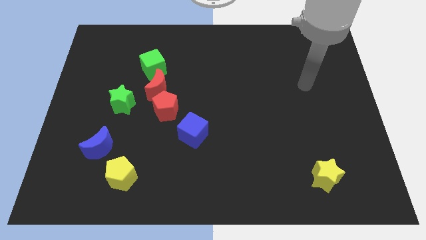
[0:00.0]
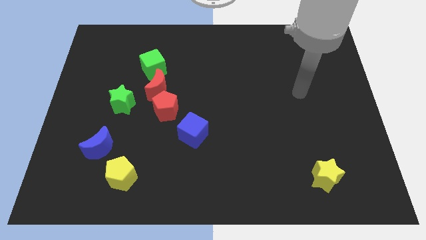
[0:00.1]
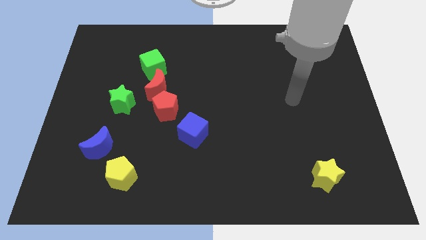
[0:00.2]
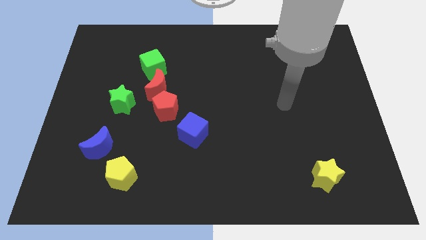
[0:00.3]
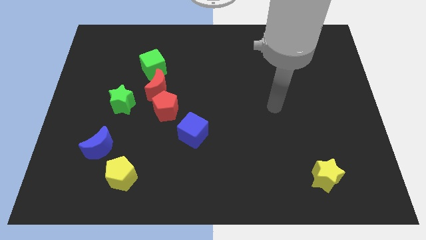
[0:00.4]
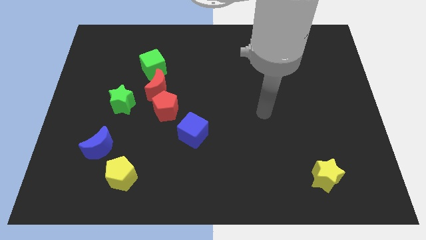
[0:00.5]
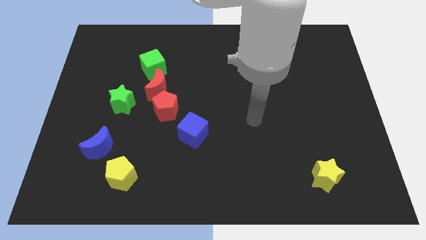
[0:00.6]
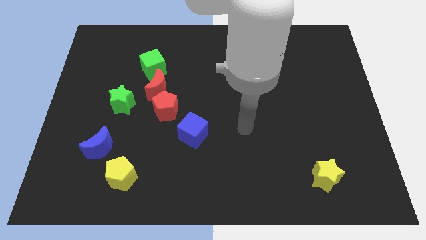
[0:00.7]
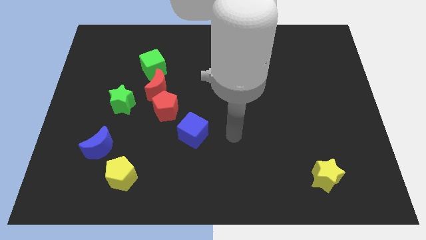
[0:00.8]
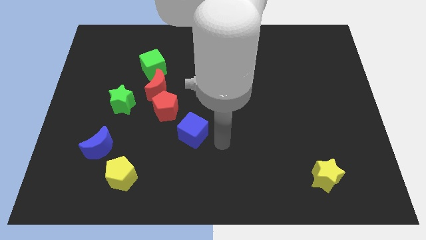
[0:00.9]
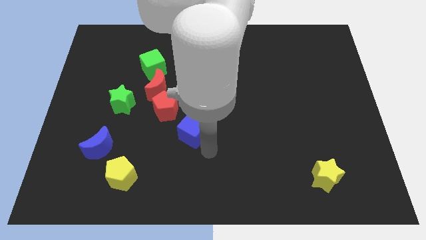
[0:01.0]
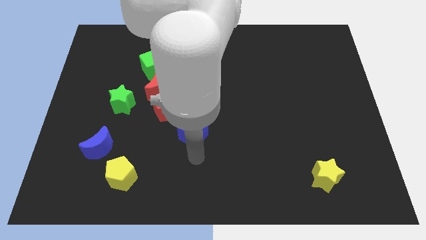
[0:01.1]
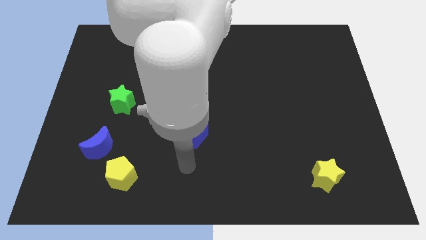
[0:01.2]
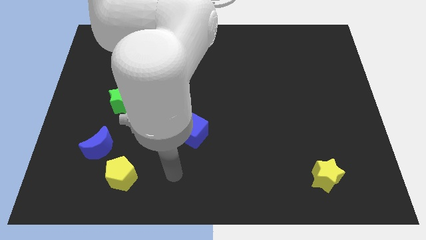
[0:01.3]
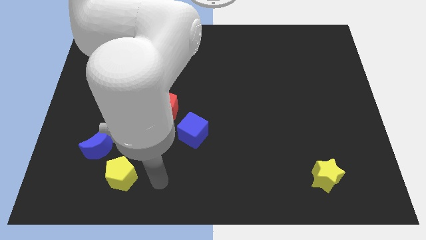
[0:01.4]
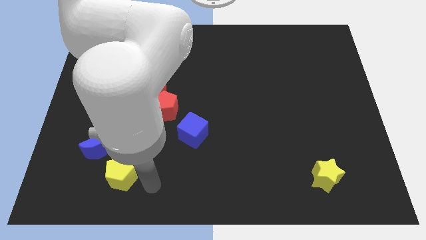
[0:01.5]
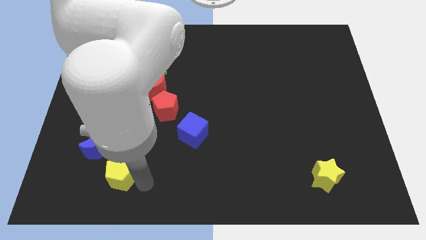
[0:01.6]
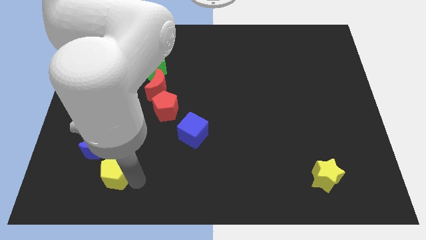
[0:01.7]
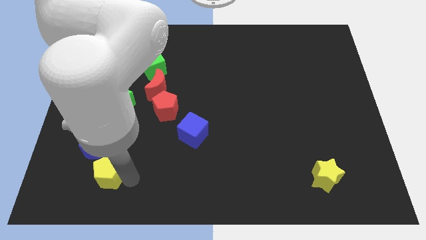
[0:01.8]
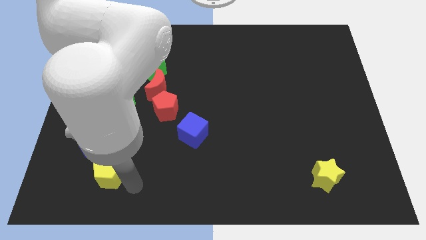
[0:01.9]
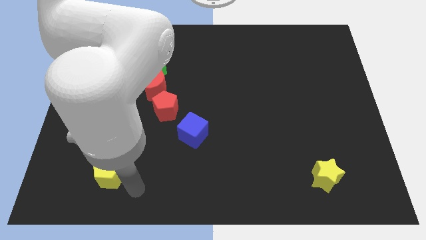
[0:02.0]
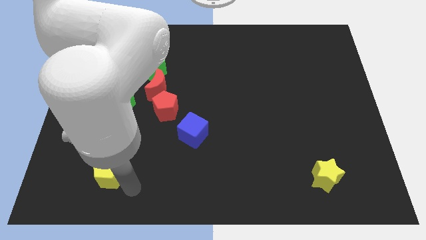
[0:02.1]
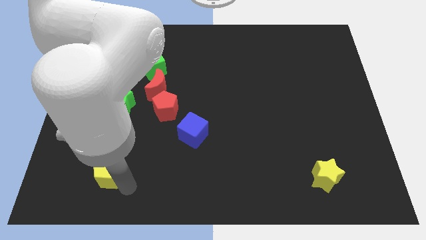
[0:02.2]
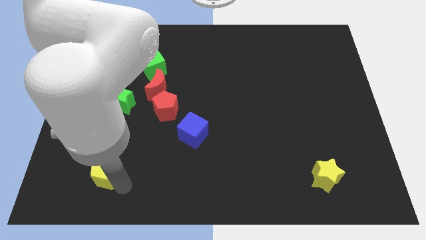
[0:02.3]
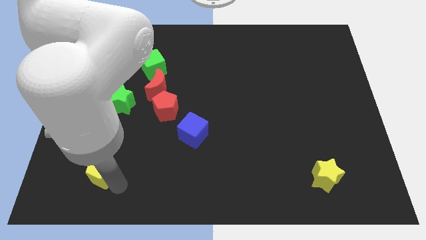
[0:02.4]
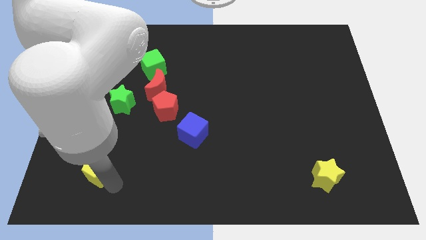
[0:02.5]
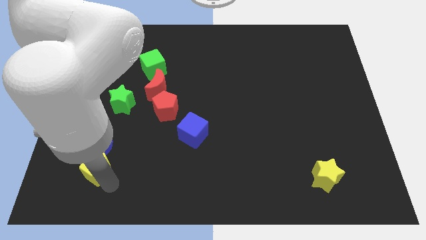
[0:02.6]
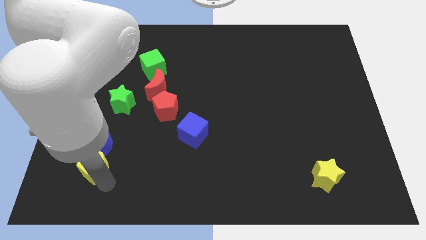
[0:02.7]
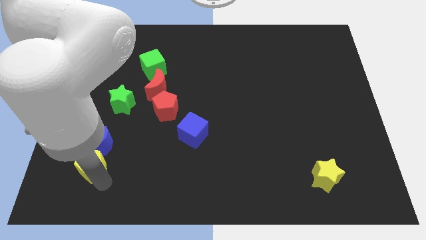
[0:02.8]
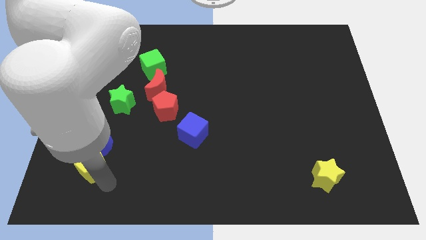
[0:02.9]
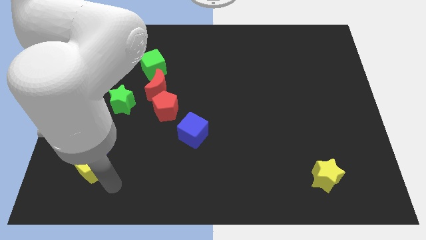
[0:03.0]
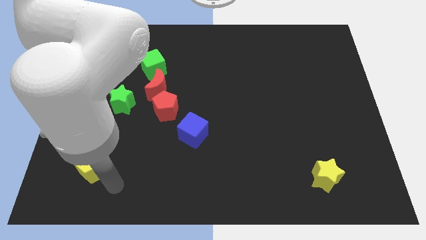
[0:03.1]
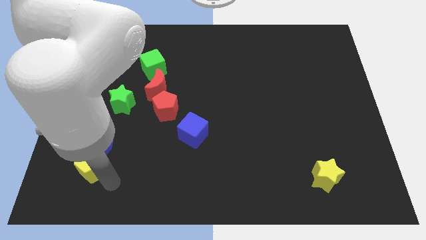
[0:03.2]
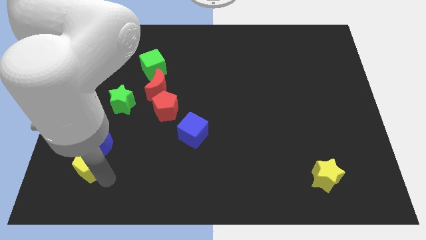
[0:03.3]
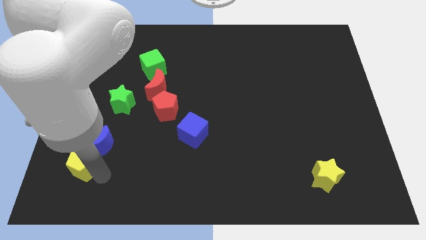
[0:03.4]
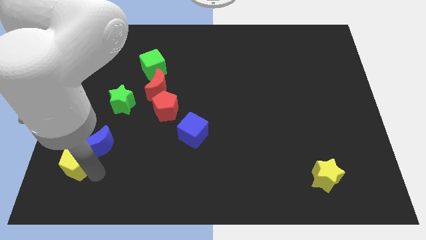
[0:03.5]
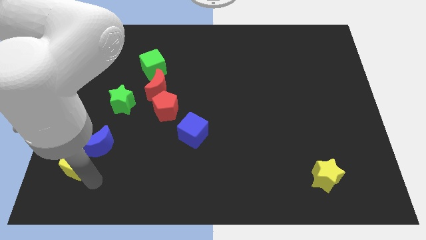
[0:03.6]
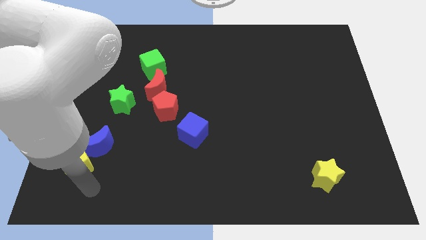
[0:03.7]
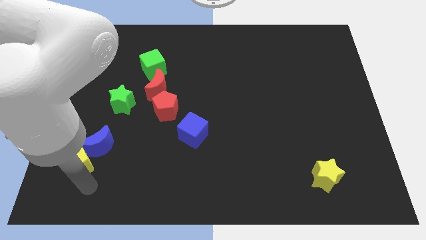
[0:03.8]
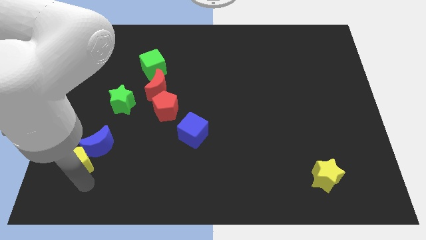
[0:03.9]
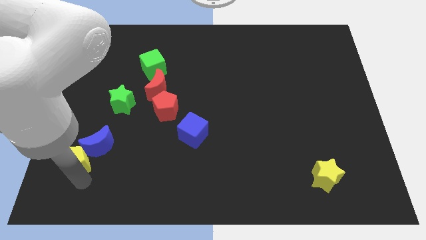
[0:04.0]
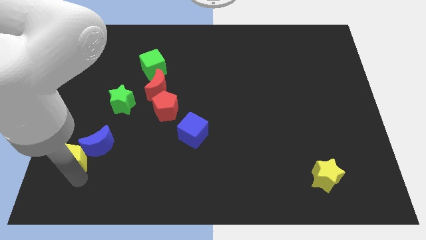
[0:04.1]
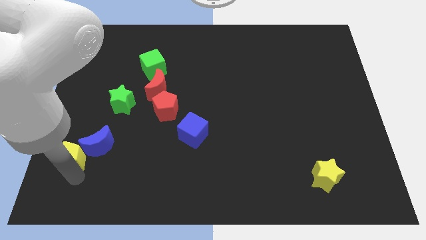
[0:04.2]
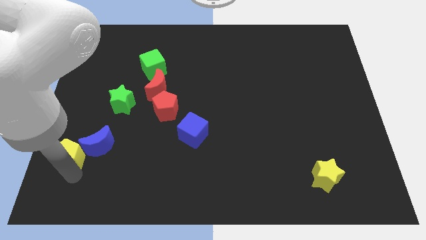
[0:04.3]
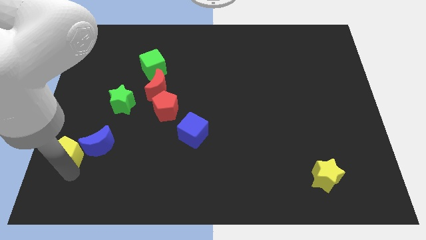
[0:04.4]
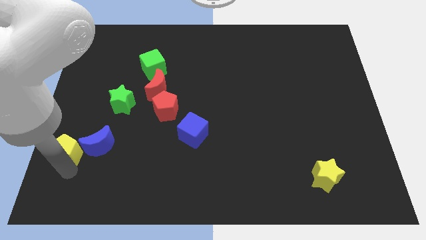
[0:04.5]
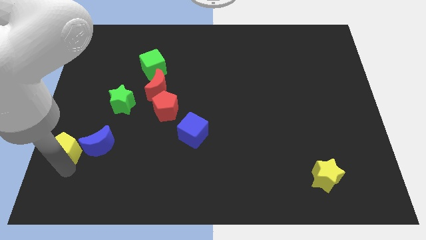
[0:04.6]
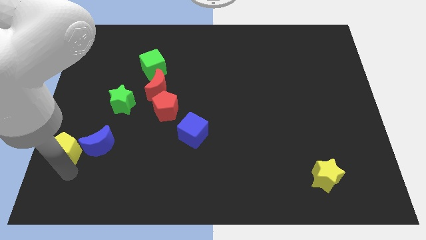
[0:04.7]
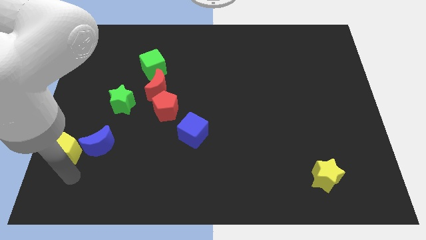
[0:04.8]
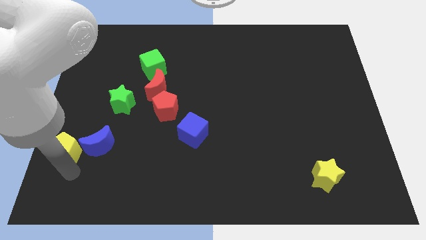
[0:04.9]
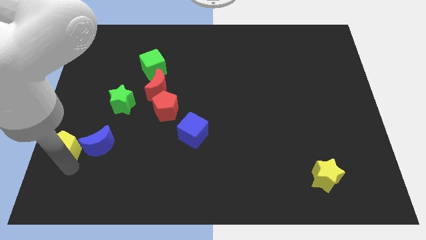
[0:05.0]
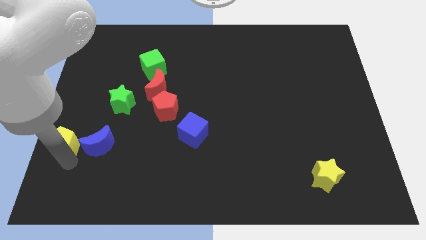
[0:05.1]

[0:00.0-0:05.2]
push the yellow pentagon to the left side of the board

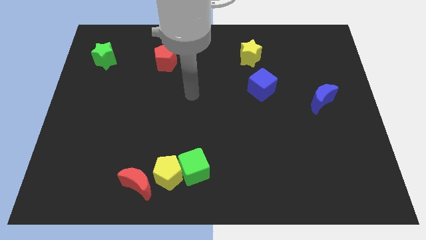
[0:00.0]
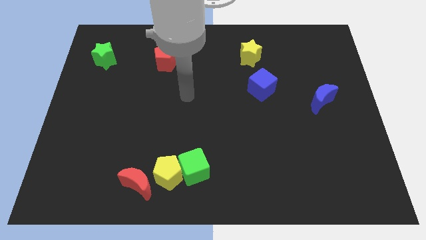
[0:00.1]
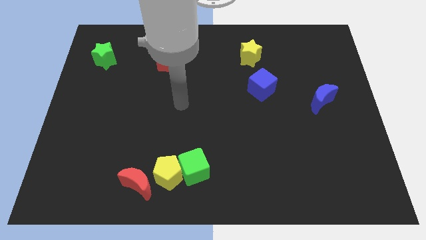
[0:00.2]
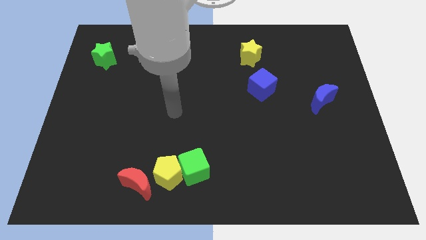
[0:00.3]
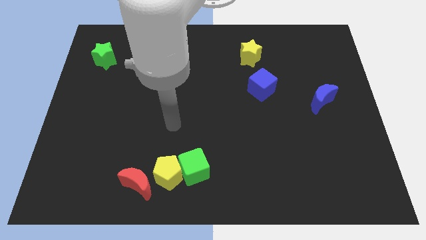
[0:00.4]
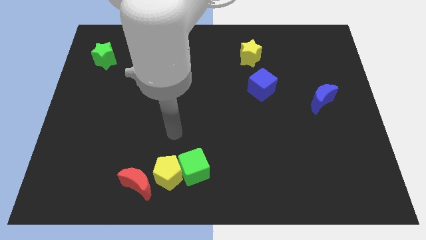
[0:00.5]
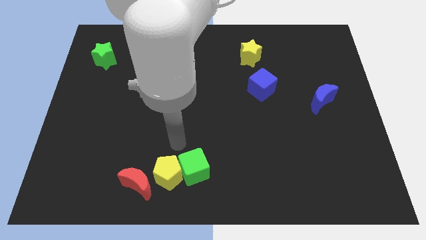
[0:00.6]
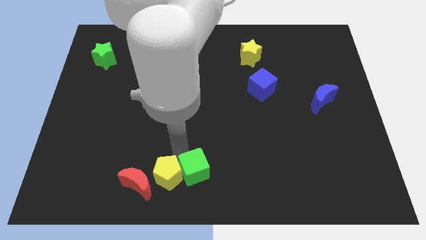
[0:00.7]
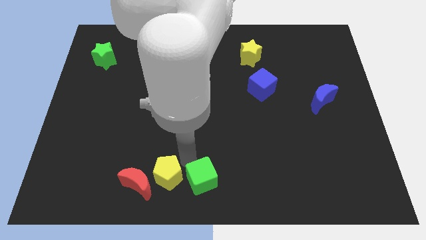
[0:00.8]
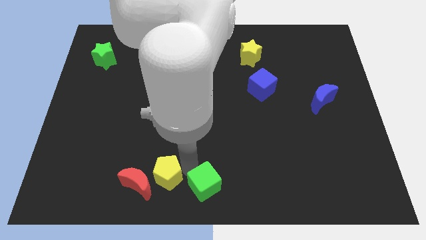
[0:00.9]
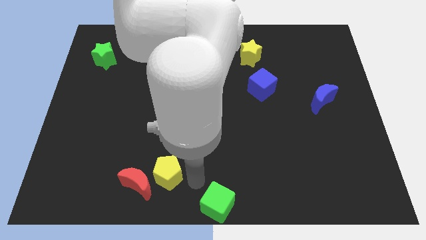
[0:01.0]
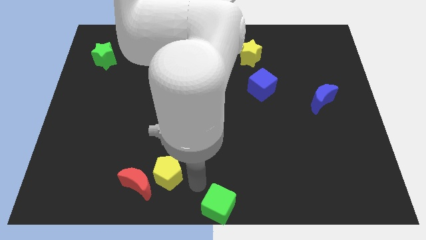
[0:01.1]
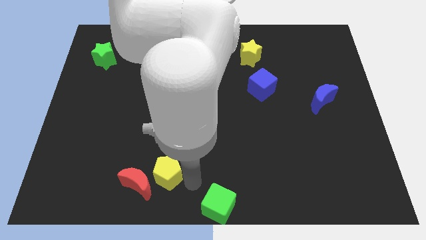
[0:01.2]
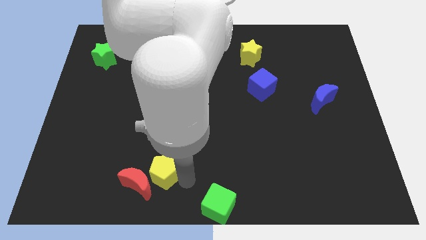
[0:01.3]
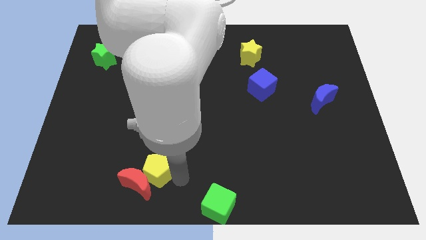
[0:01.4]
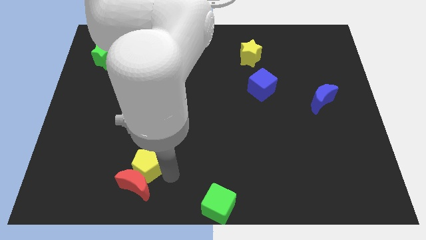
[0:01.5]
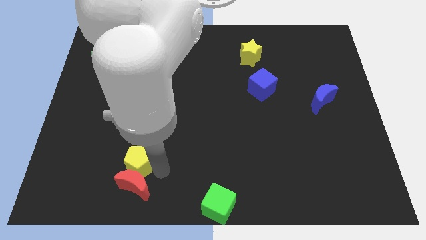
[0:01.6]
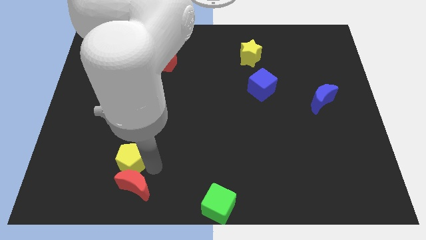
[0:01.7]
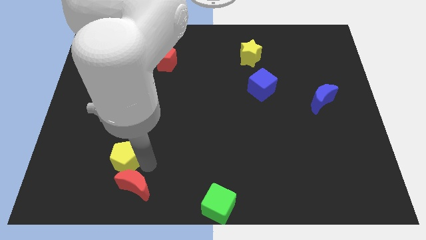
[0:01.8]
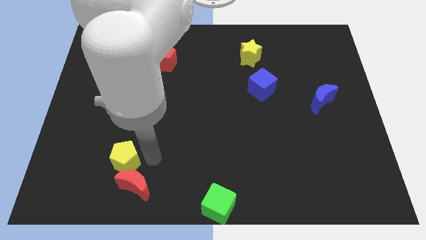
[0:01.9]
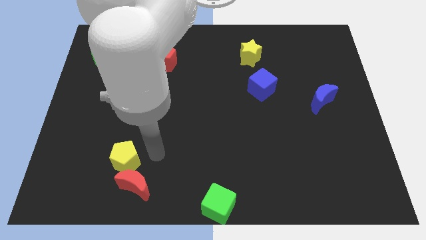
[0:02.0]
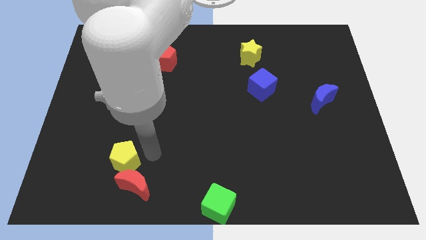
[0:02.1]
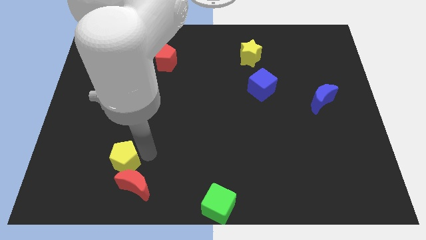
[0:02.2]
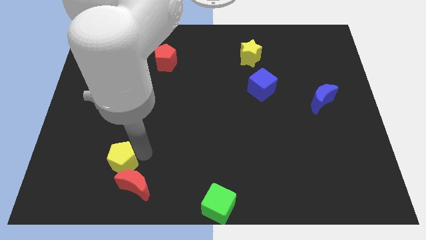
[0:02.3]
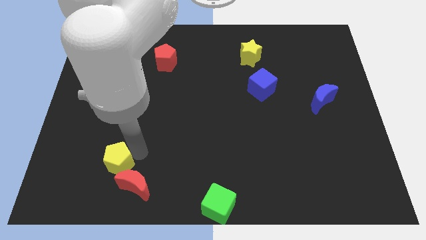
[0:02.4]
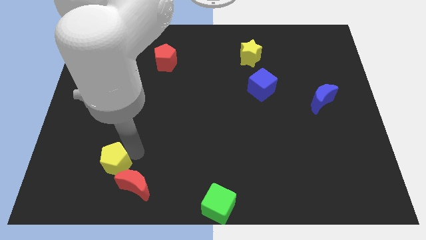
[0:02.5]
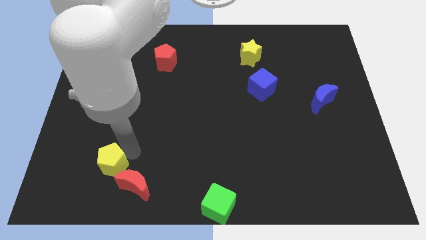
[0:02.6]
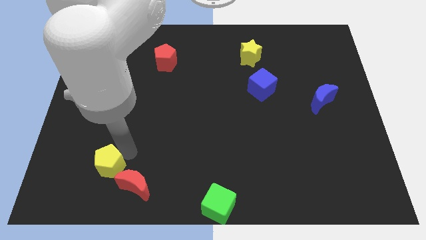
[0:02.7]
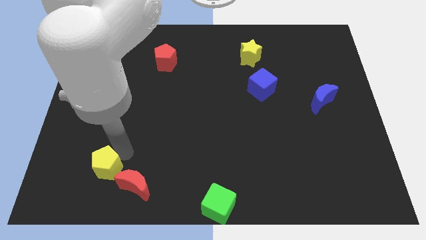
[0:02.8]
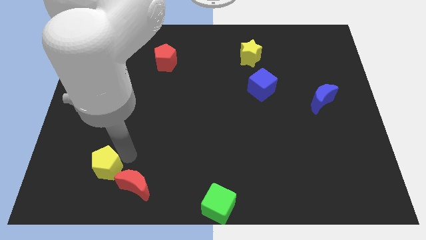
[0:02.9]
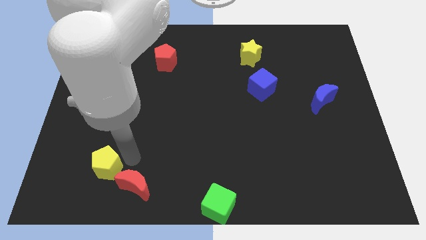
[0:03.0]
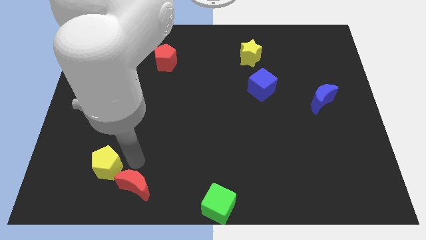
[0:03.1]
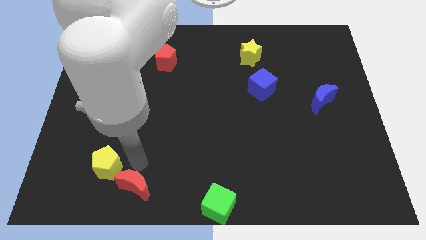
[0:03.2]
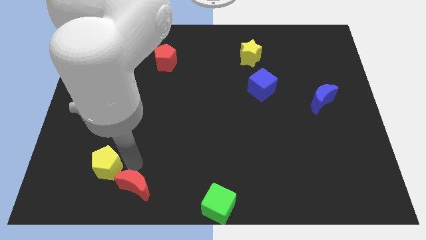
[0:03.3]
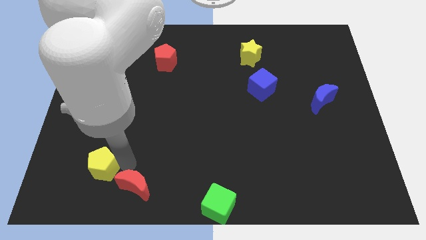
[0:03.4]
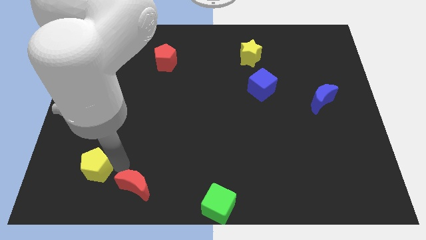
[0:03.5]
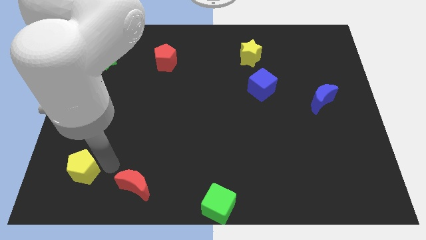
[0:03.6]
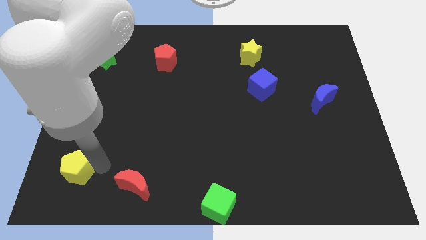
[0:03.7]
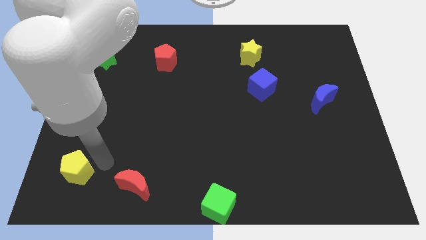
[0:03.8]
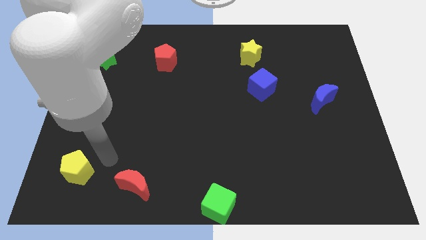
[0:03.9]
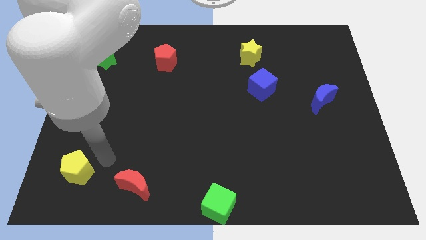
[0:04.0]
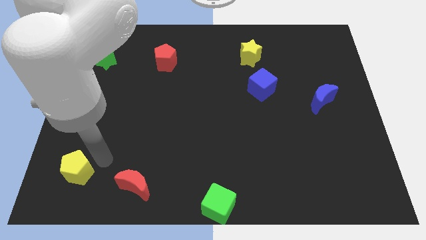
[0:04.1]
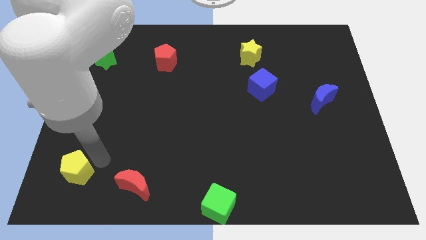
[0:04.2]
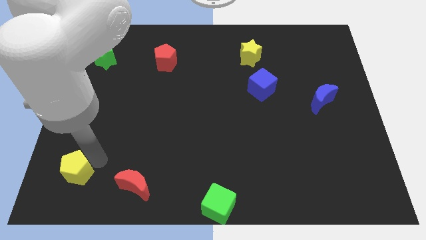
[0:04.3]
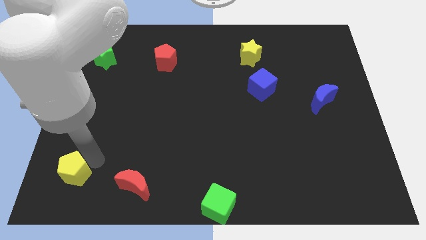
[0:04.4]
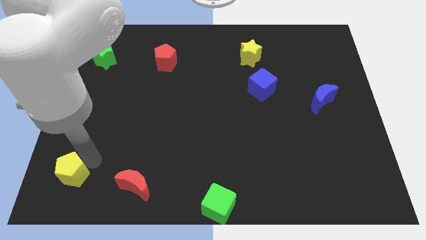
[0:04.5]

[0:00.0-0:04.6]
push the yellow pentagon to the bottom left
